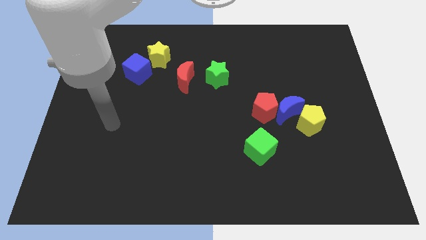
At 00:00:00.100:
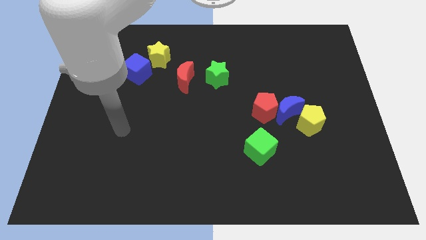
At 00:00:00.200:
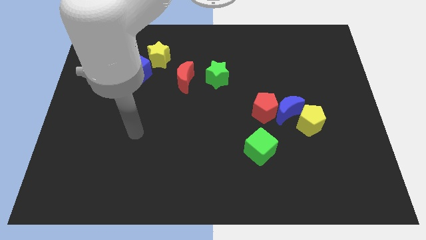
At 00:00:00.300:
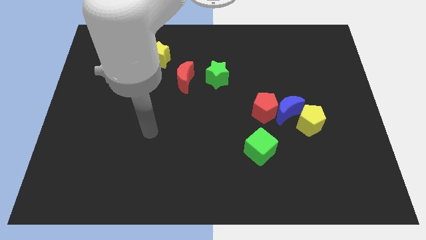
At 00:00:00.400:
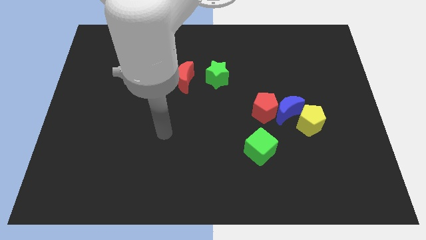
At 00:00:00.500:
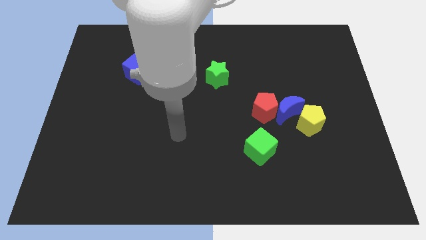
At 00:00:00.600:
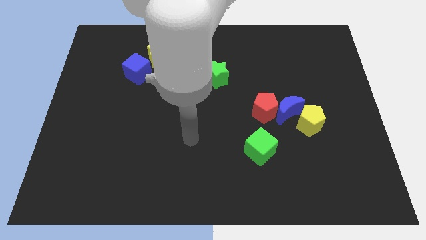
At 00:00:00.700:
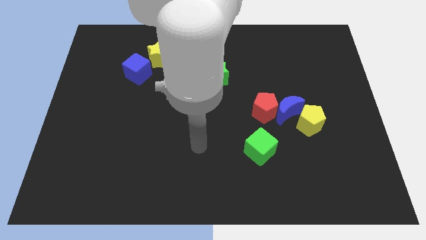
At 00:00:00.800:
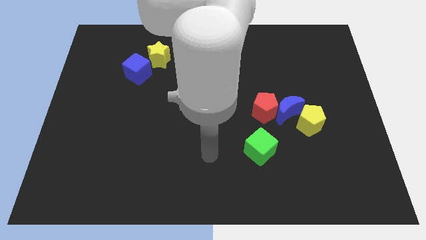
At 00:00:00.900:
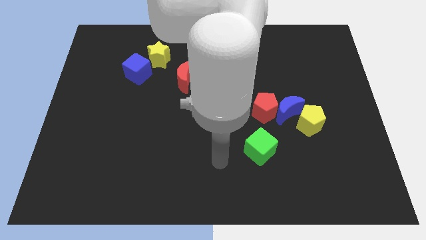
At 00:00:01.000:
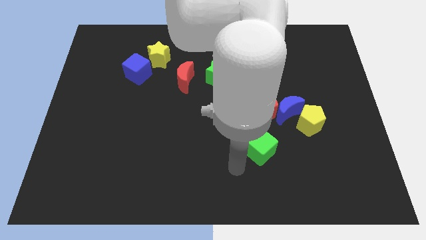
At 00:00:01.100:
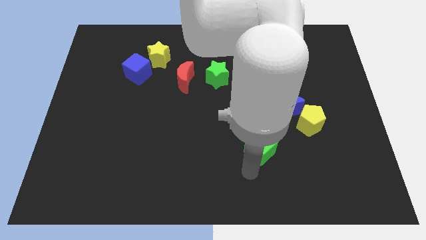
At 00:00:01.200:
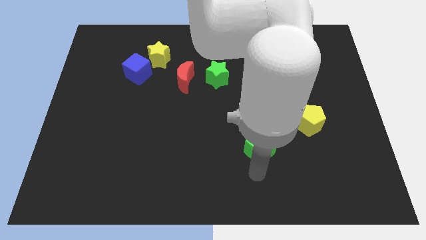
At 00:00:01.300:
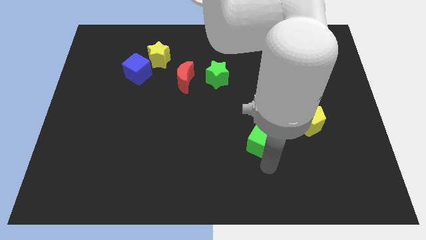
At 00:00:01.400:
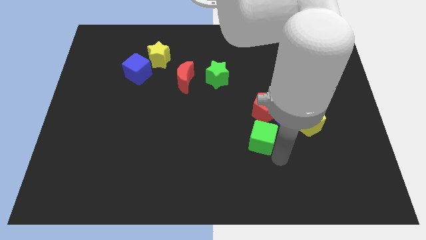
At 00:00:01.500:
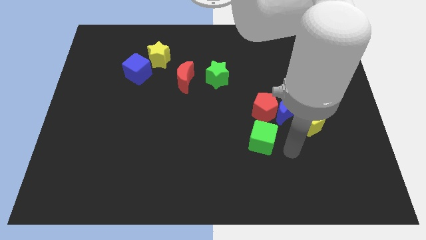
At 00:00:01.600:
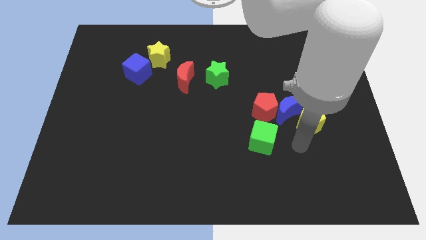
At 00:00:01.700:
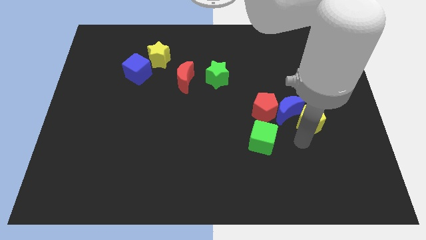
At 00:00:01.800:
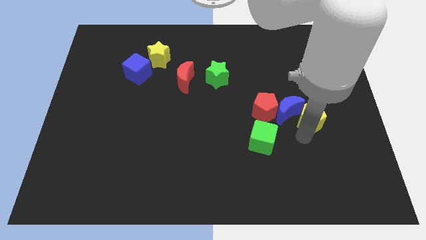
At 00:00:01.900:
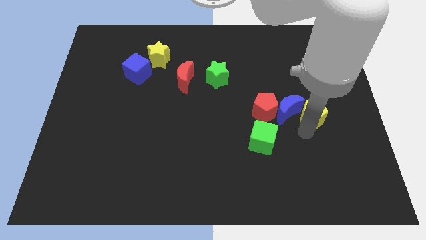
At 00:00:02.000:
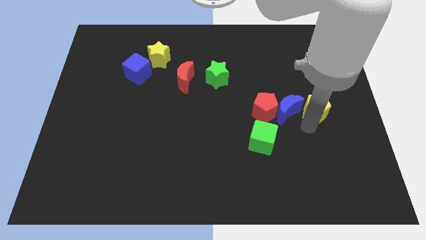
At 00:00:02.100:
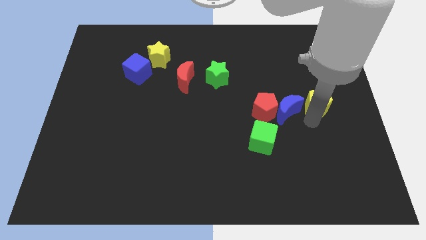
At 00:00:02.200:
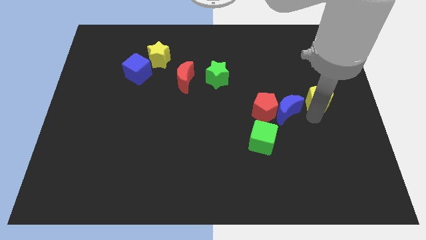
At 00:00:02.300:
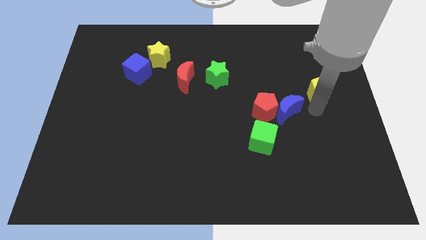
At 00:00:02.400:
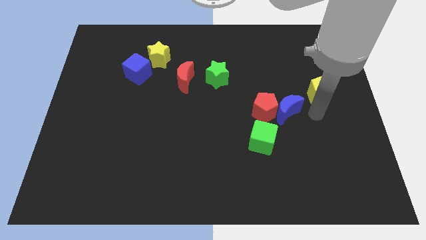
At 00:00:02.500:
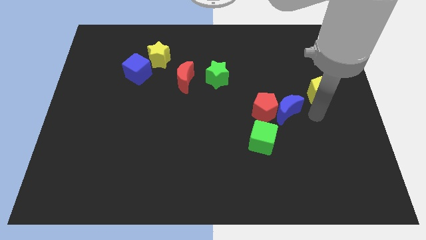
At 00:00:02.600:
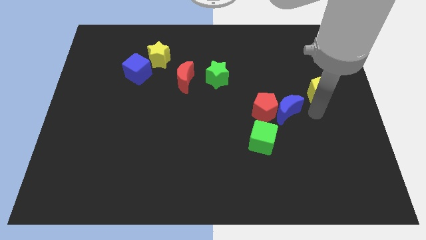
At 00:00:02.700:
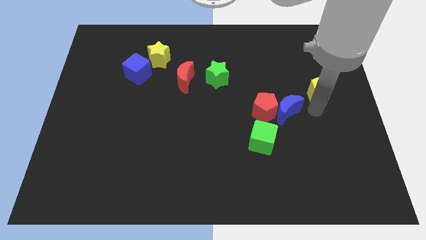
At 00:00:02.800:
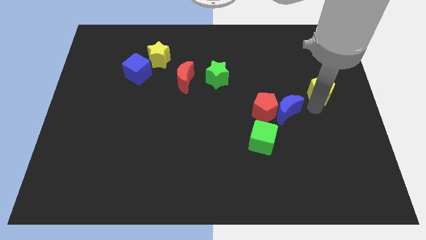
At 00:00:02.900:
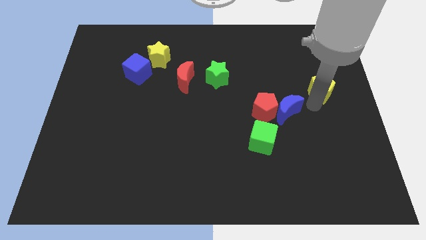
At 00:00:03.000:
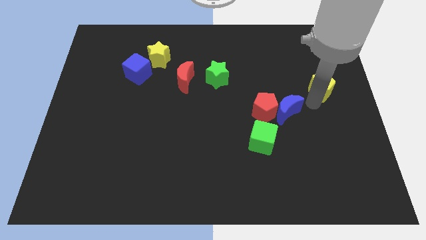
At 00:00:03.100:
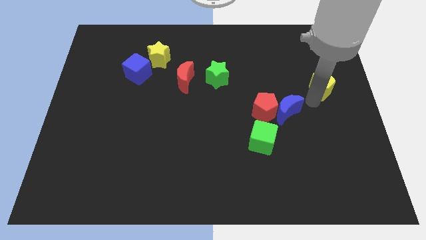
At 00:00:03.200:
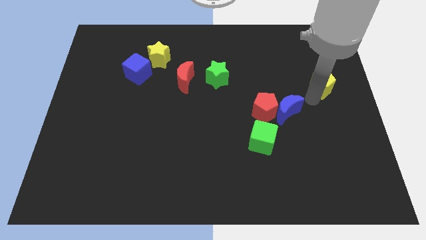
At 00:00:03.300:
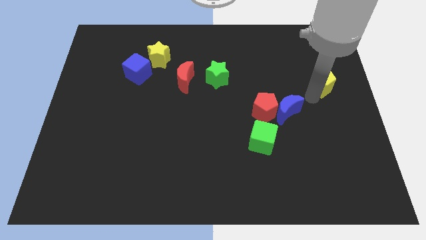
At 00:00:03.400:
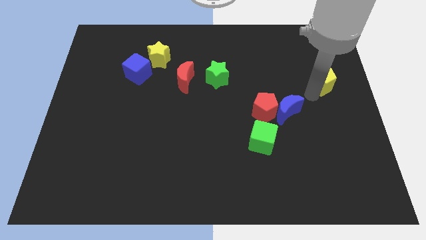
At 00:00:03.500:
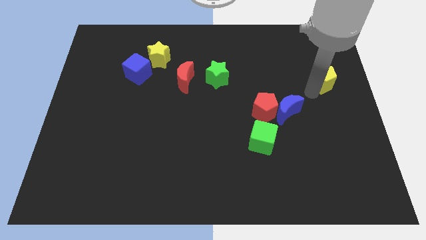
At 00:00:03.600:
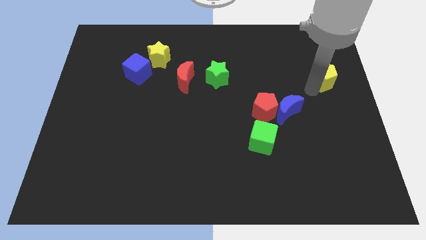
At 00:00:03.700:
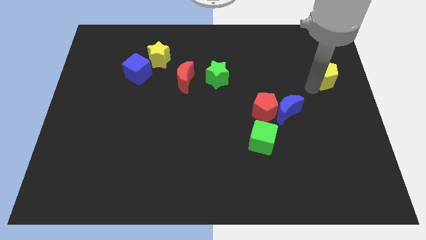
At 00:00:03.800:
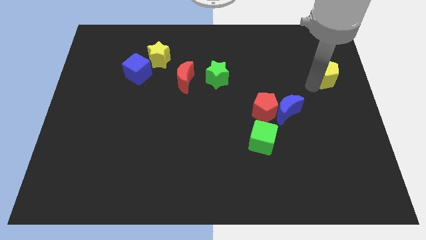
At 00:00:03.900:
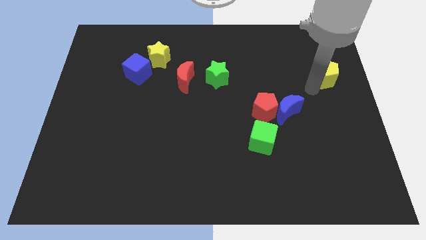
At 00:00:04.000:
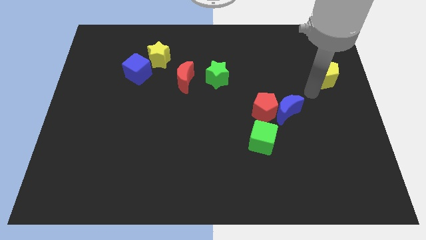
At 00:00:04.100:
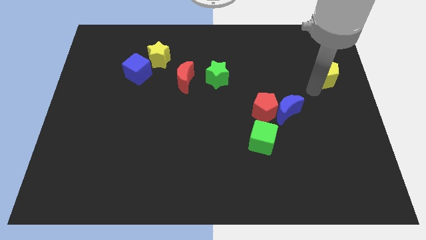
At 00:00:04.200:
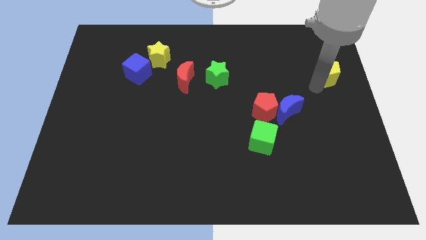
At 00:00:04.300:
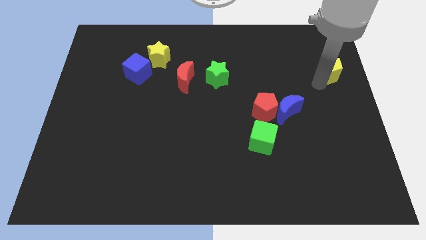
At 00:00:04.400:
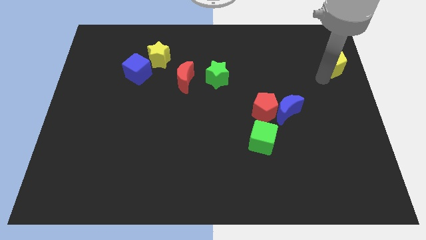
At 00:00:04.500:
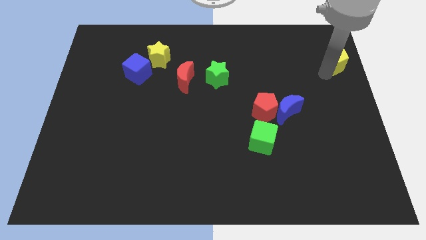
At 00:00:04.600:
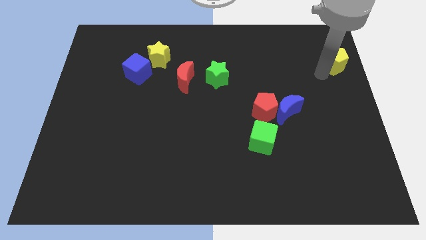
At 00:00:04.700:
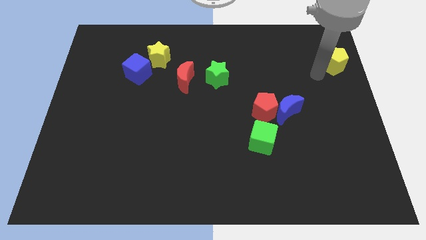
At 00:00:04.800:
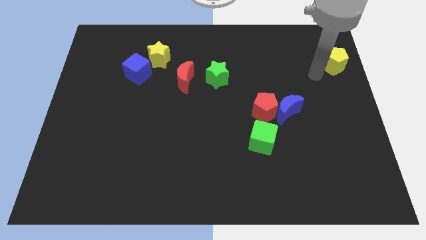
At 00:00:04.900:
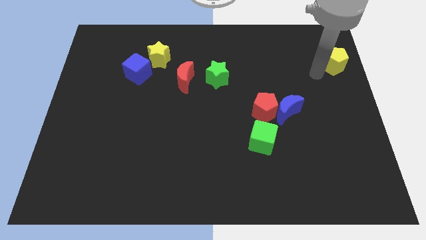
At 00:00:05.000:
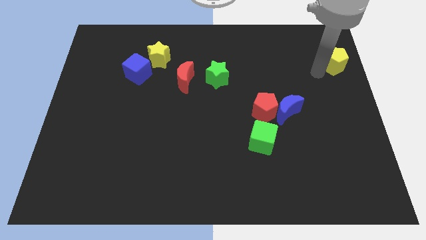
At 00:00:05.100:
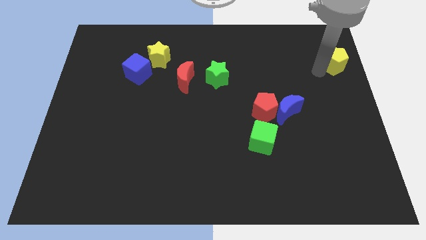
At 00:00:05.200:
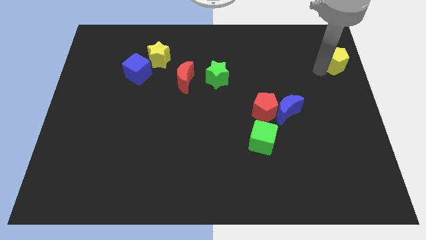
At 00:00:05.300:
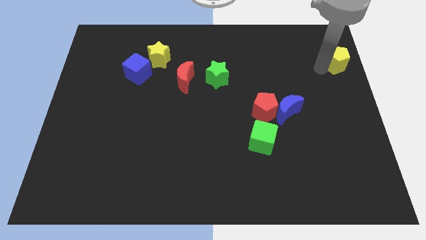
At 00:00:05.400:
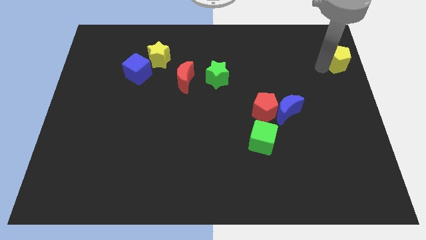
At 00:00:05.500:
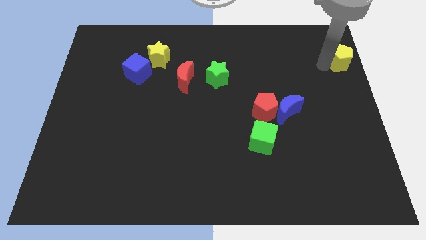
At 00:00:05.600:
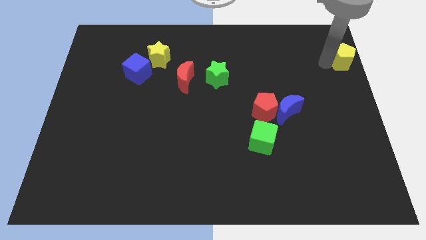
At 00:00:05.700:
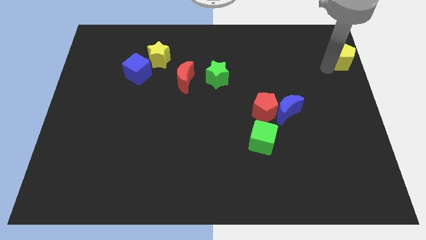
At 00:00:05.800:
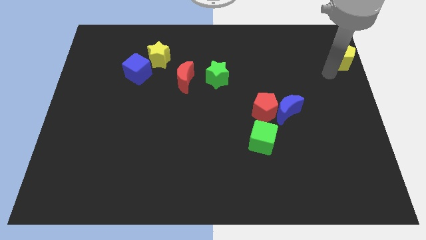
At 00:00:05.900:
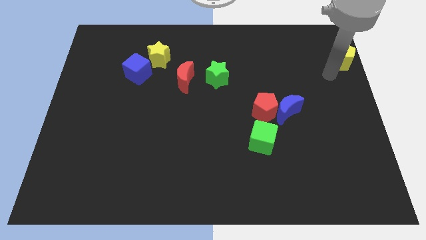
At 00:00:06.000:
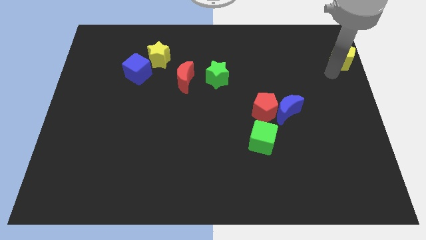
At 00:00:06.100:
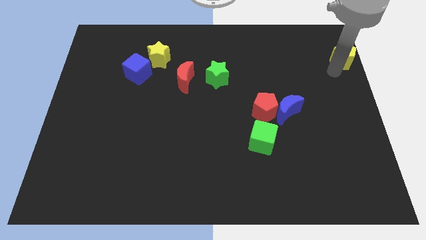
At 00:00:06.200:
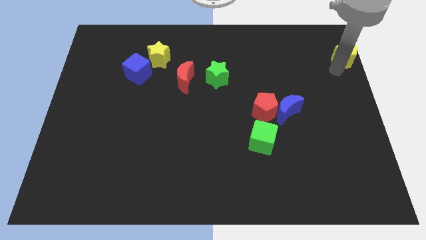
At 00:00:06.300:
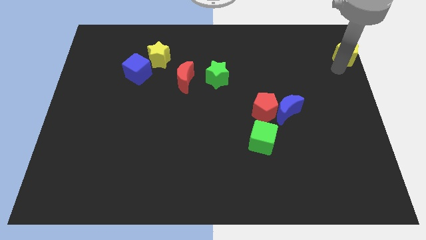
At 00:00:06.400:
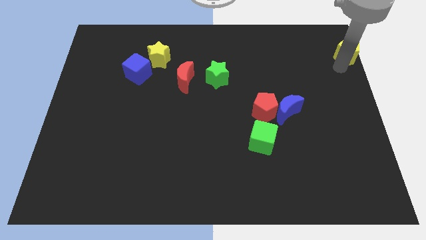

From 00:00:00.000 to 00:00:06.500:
push the yellow pentagon to the top right of the board

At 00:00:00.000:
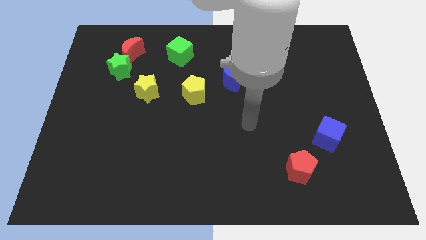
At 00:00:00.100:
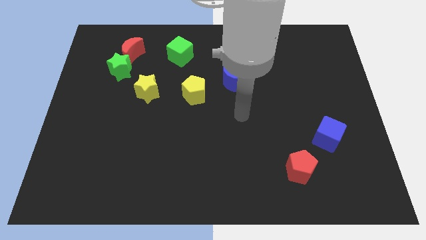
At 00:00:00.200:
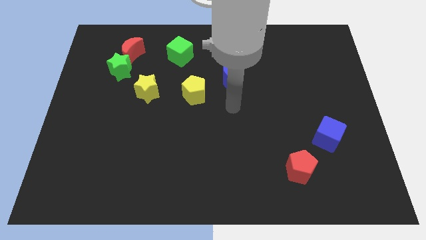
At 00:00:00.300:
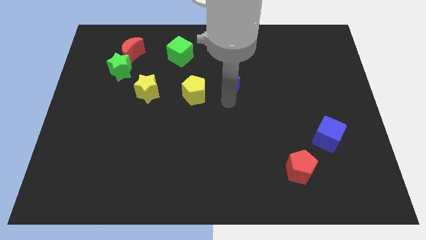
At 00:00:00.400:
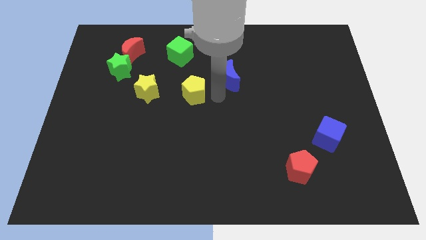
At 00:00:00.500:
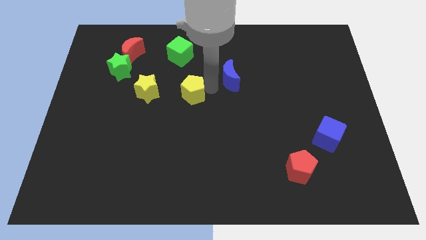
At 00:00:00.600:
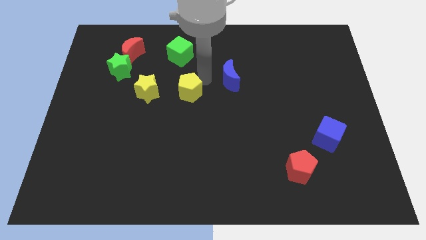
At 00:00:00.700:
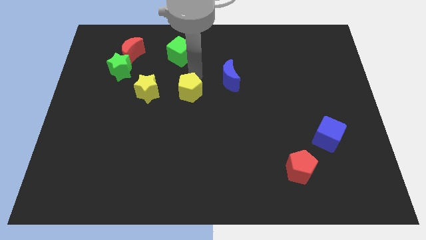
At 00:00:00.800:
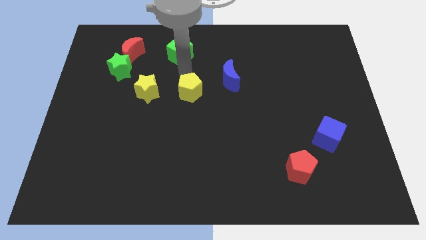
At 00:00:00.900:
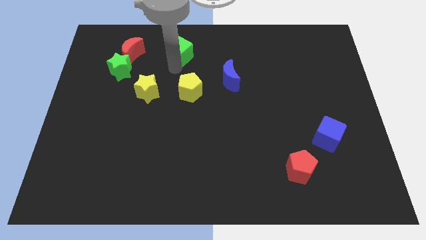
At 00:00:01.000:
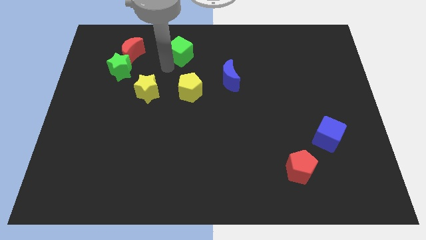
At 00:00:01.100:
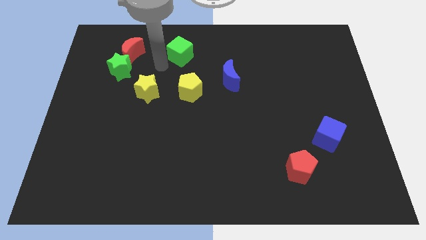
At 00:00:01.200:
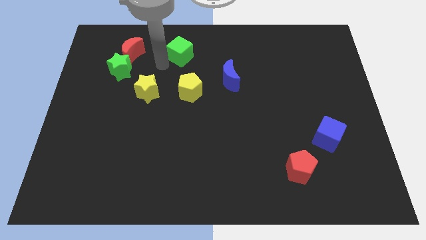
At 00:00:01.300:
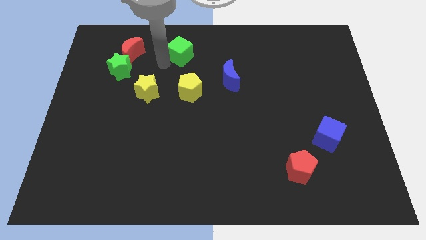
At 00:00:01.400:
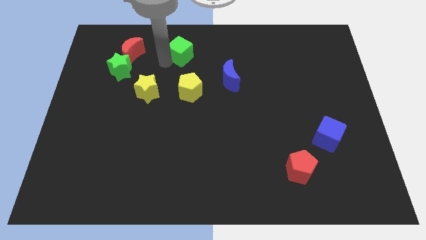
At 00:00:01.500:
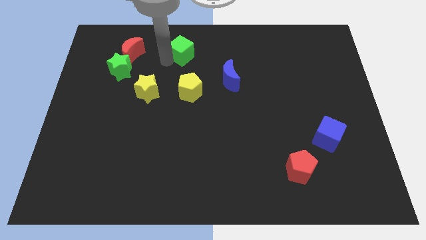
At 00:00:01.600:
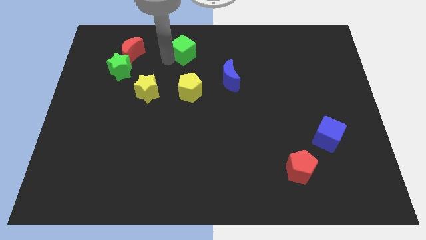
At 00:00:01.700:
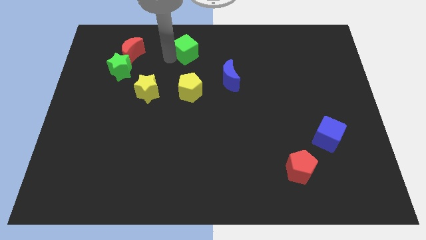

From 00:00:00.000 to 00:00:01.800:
push the green cube to the top side
